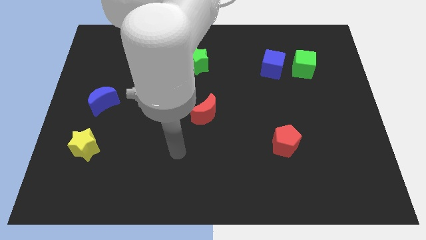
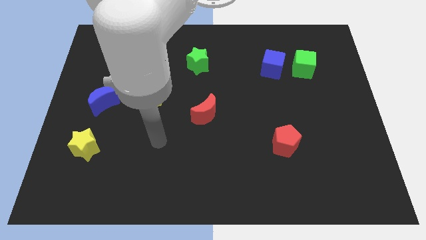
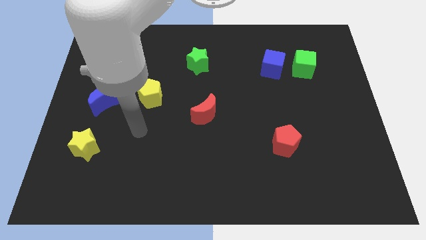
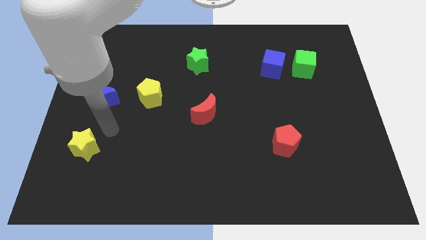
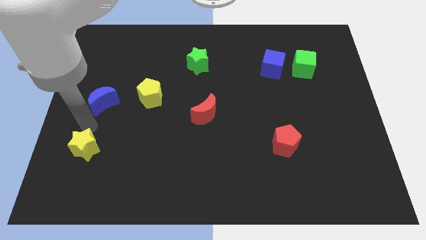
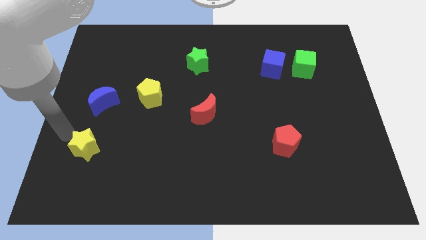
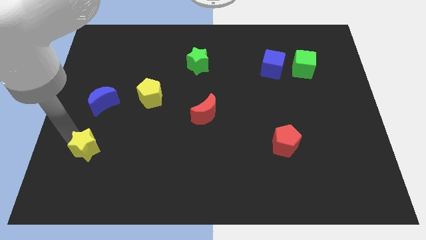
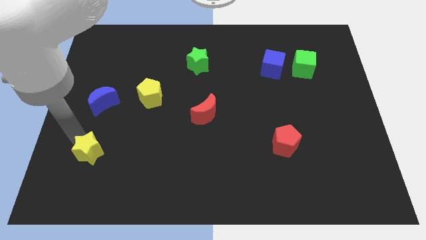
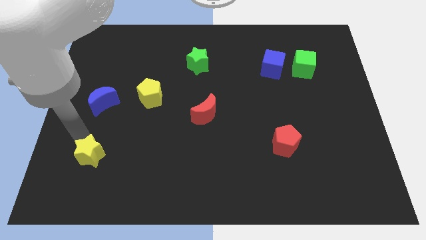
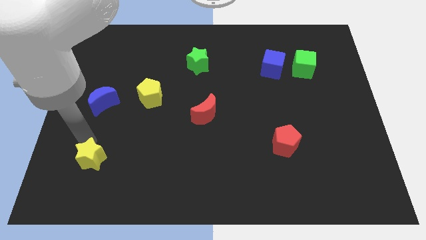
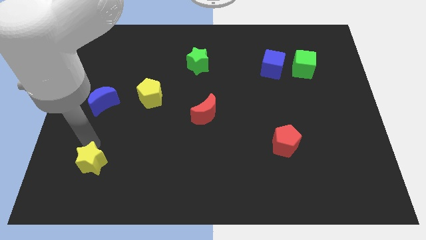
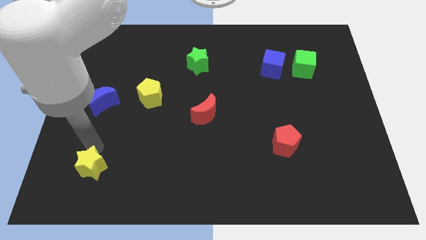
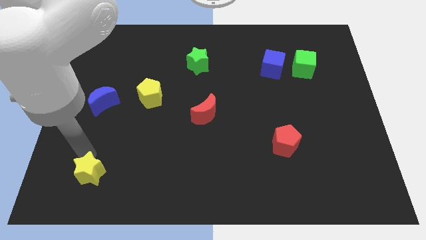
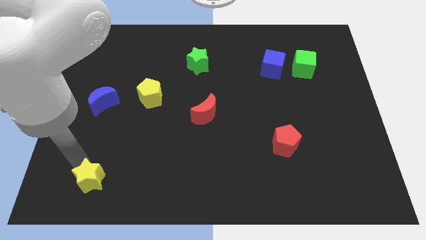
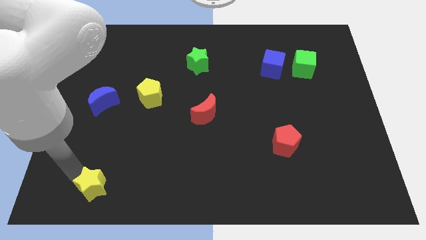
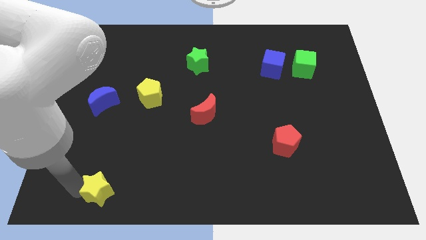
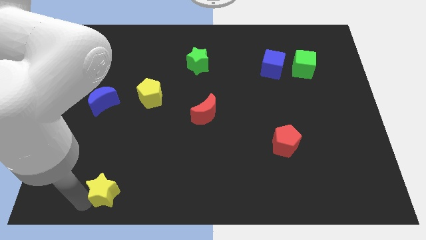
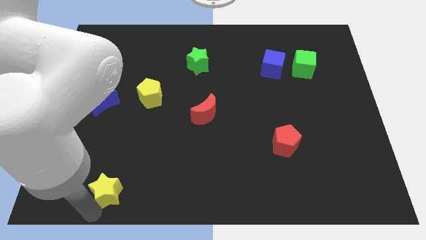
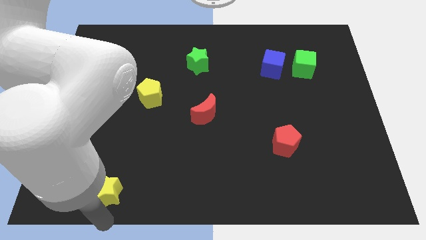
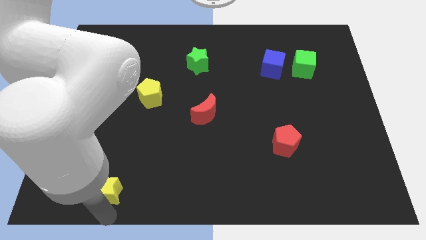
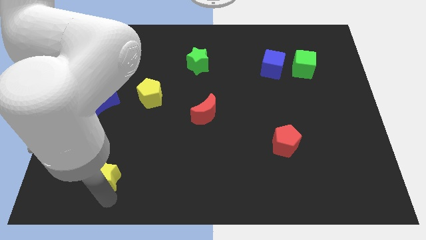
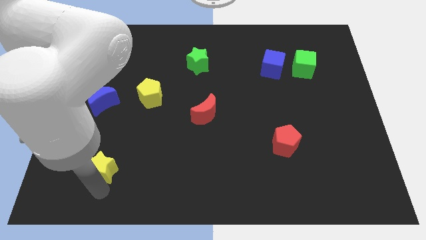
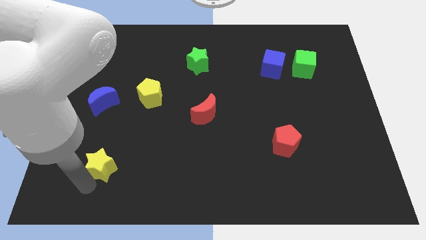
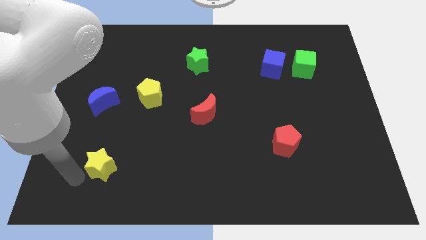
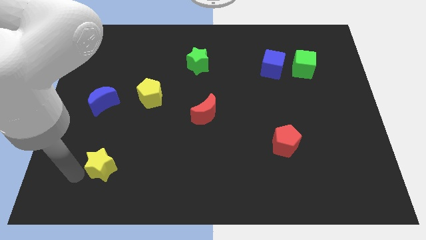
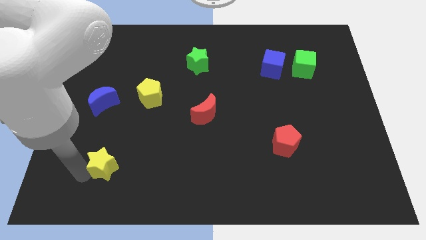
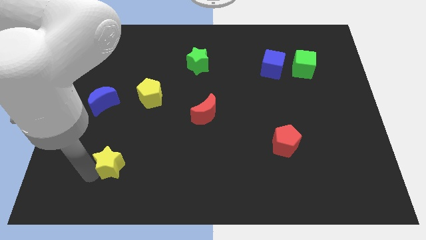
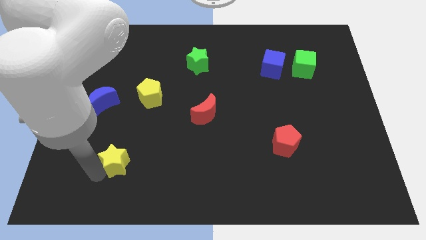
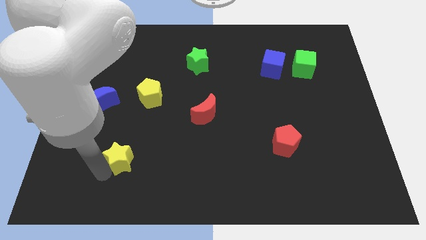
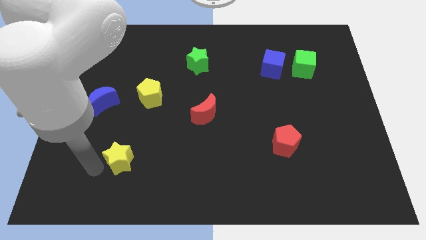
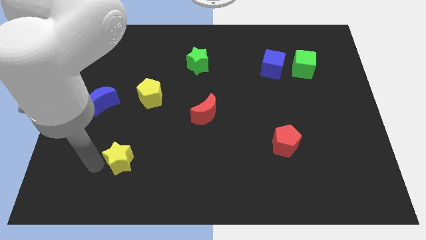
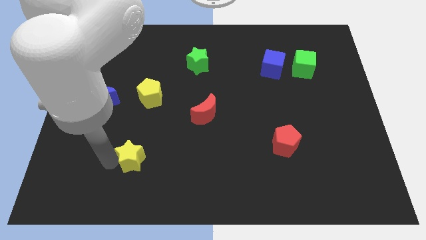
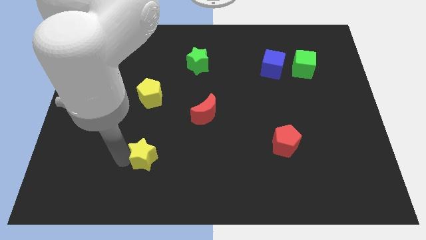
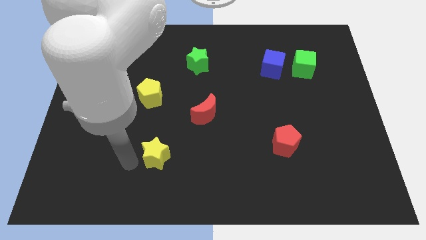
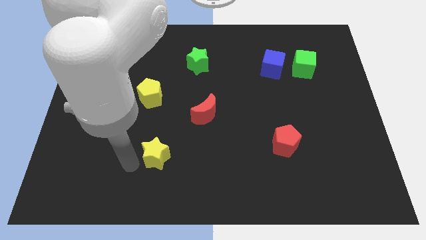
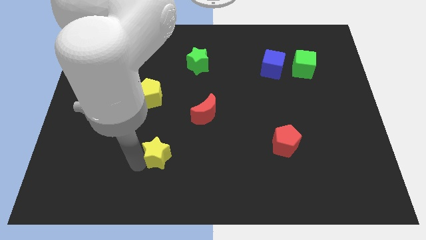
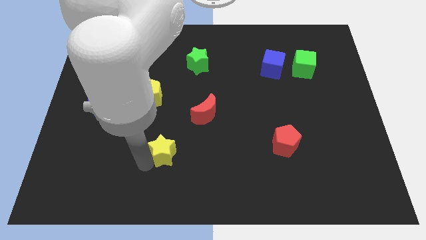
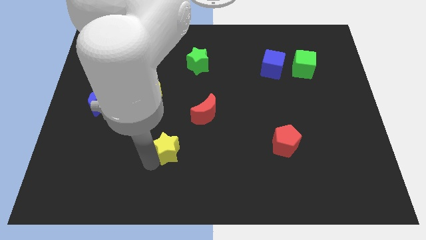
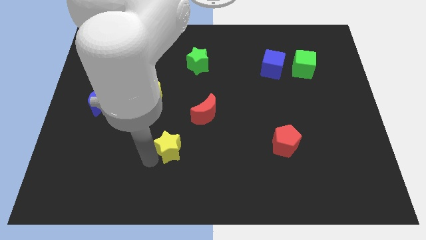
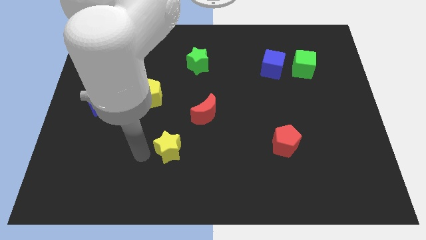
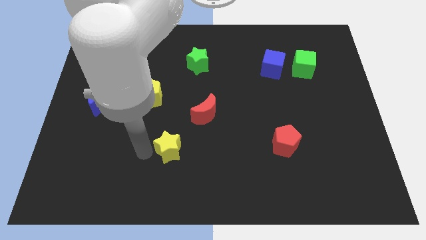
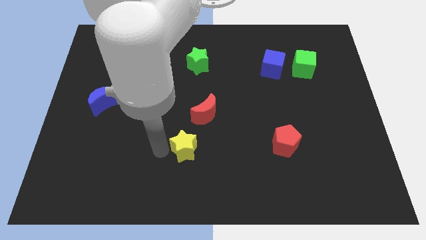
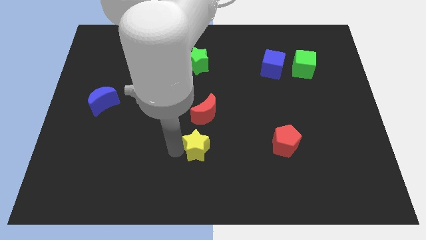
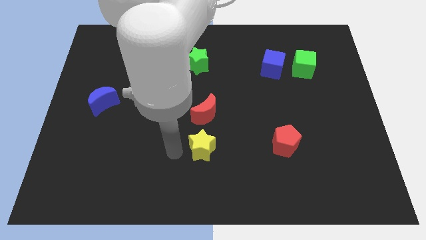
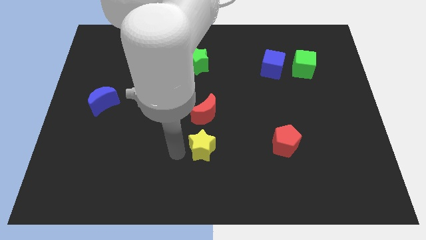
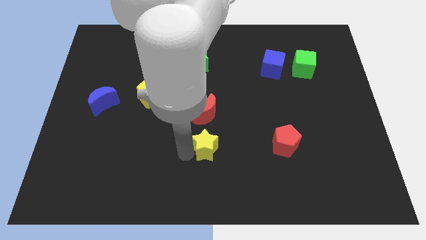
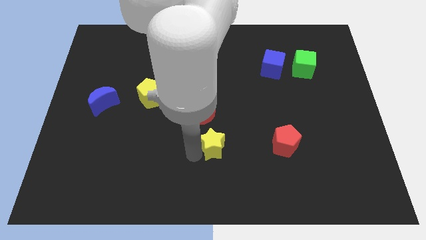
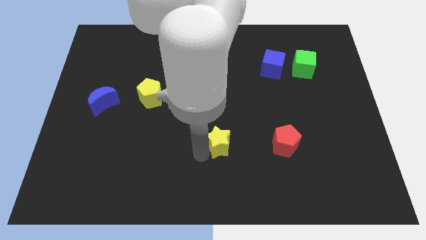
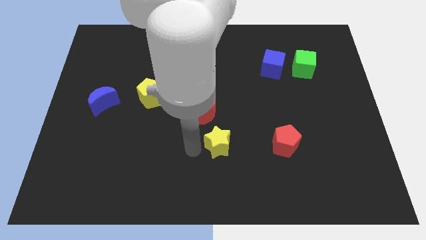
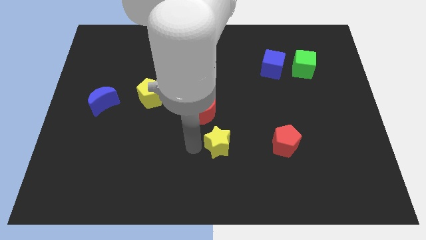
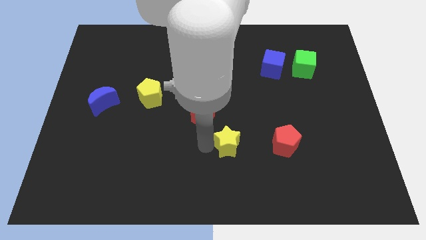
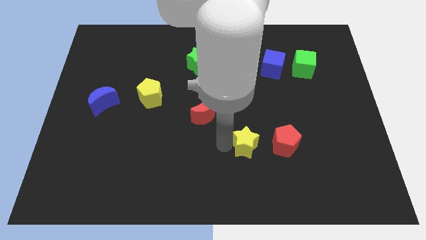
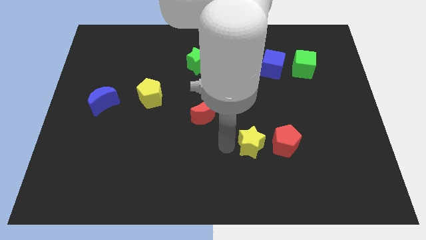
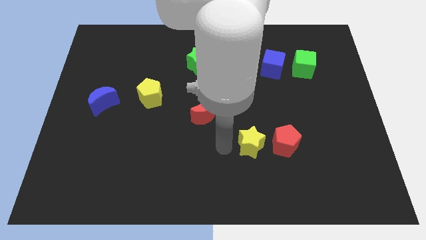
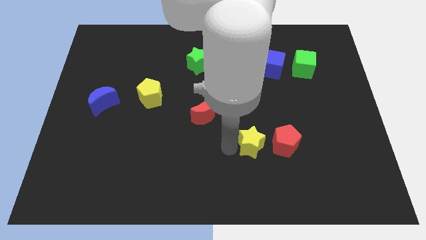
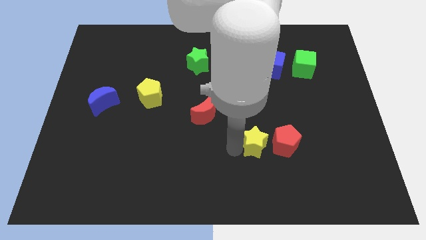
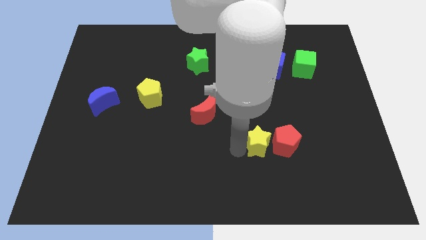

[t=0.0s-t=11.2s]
slide the yellow star towards the red pentagon

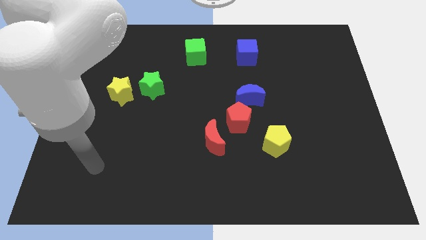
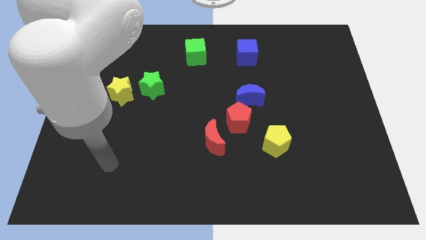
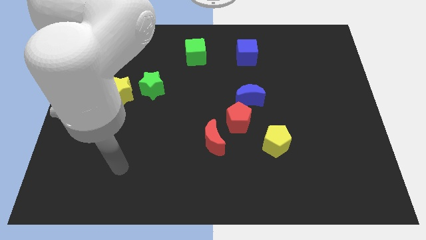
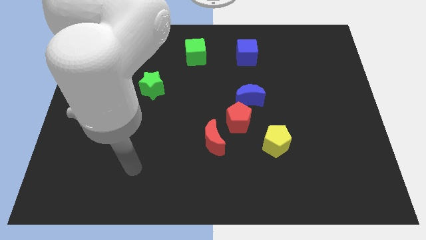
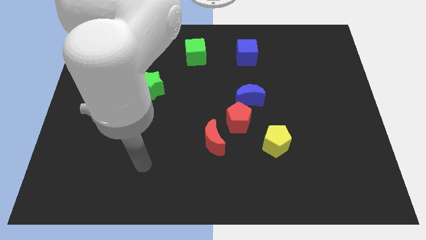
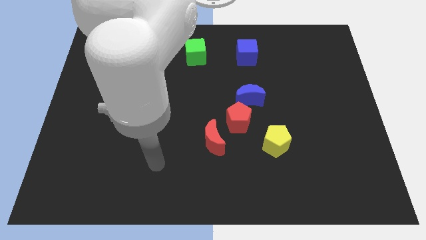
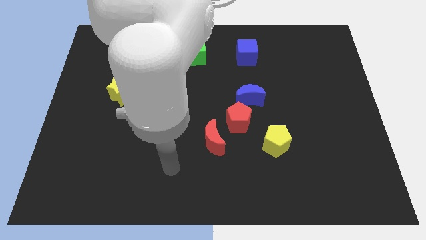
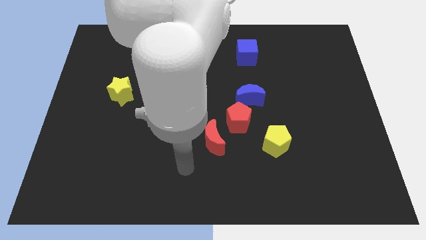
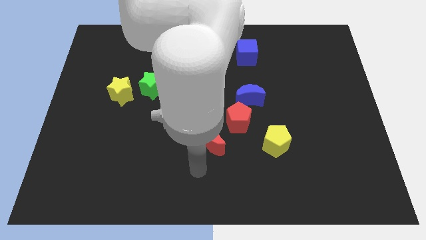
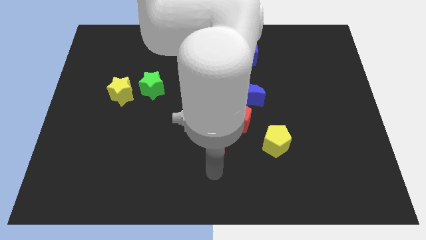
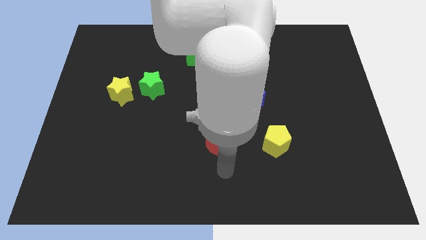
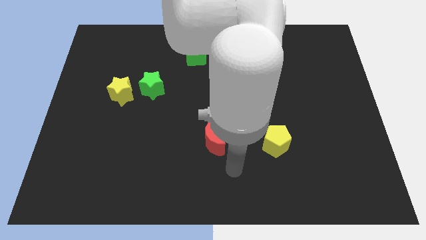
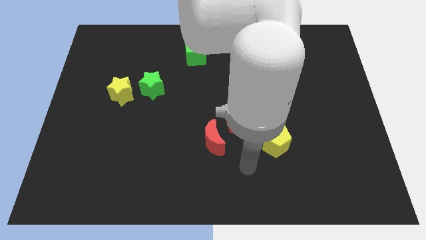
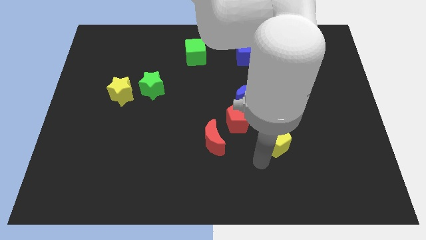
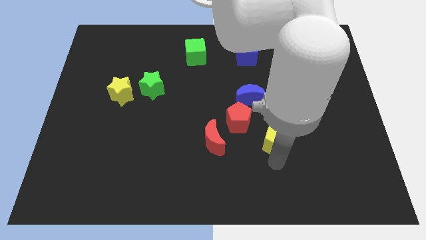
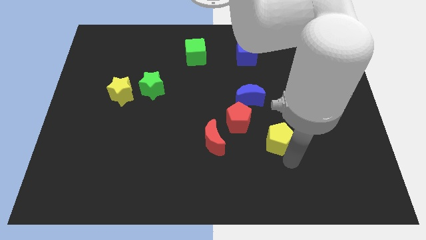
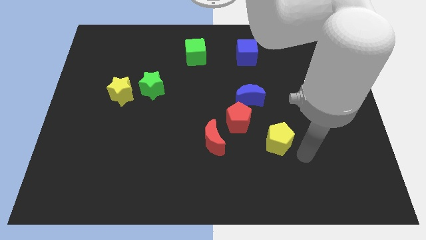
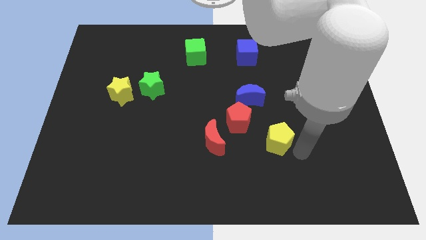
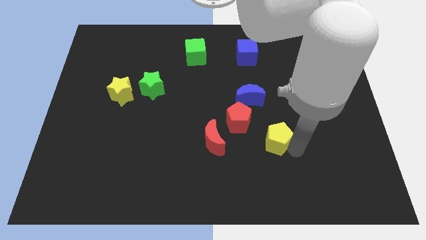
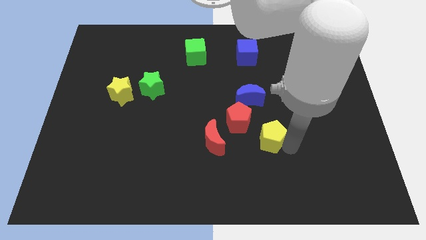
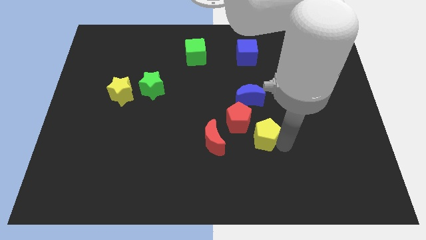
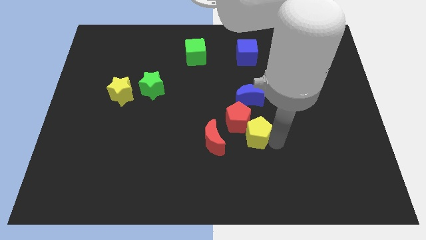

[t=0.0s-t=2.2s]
push the yellow pentagon to the red pentagon
